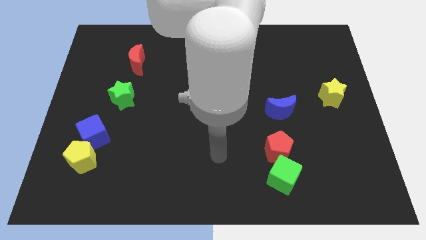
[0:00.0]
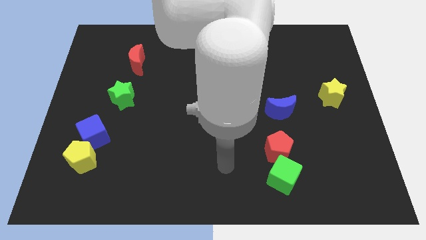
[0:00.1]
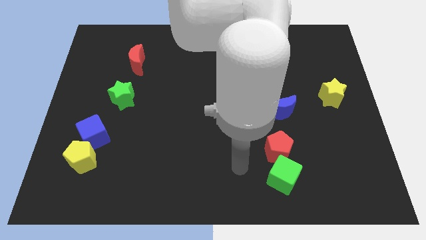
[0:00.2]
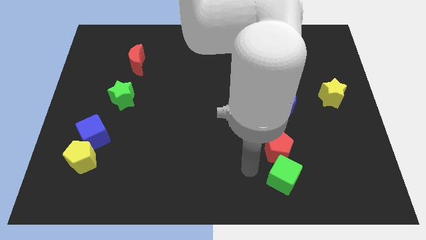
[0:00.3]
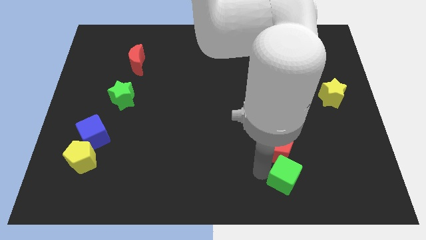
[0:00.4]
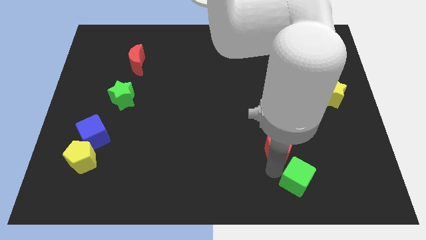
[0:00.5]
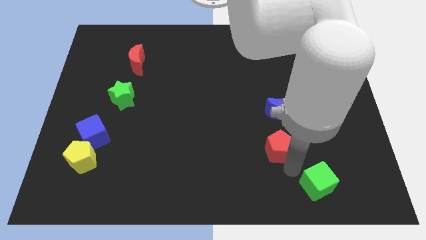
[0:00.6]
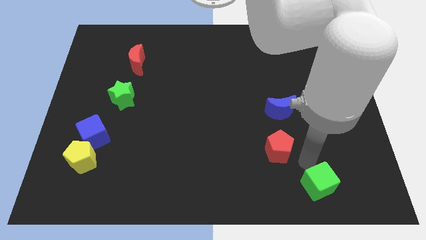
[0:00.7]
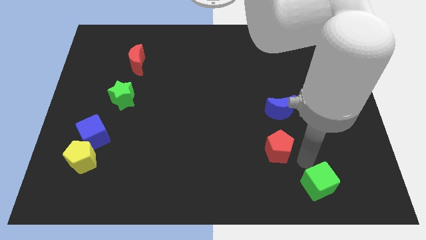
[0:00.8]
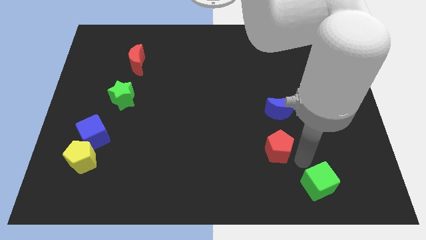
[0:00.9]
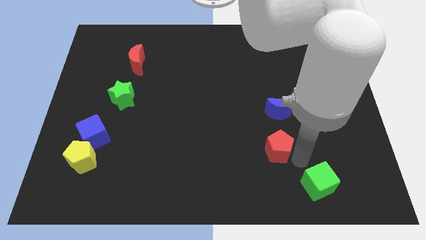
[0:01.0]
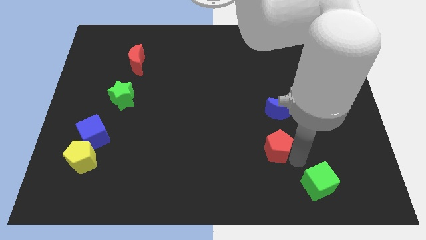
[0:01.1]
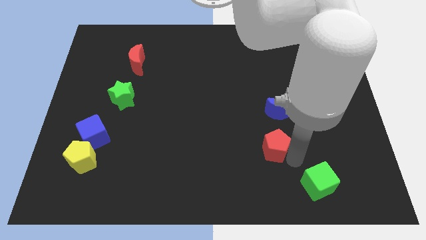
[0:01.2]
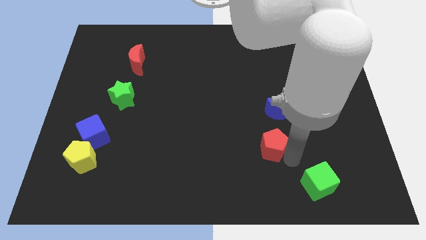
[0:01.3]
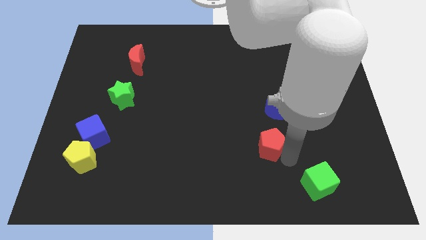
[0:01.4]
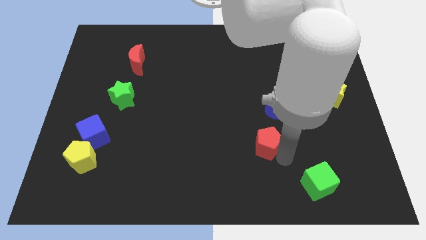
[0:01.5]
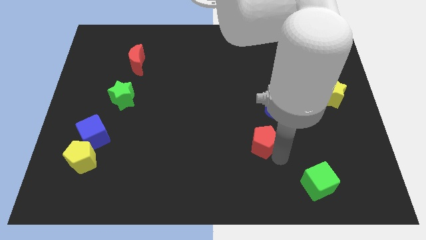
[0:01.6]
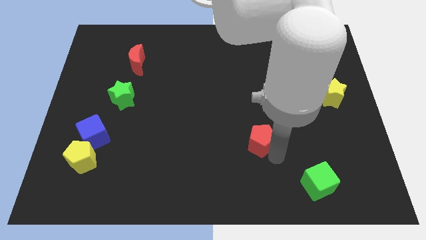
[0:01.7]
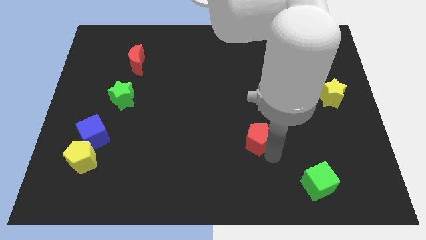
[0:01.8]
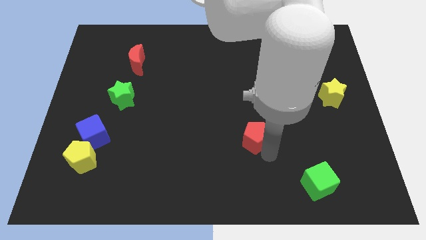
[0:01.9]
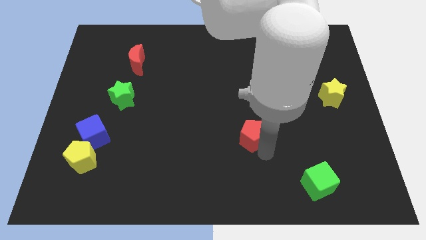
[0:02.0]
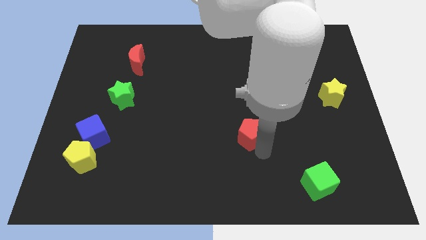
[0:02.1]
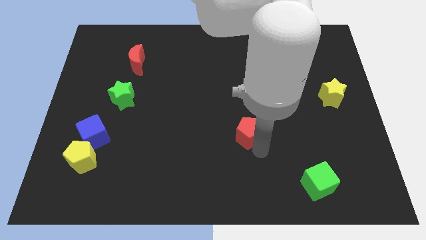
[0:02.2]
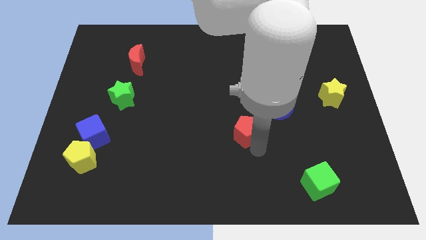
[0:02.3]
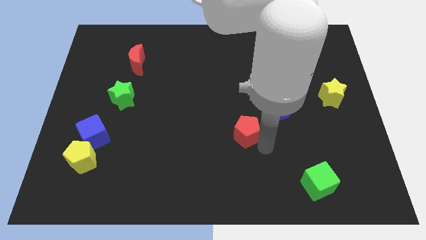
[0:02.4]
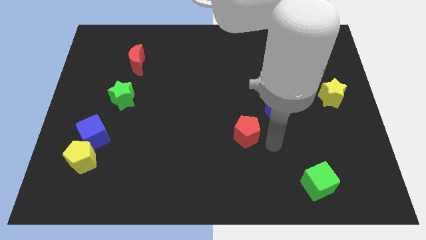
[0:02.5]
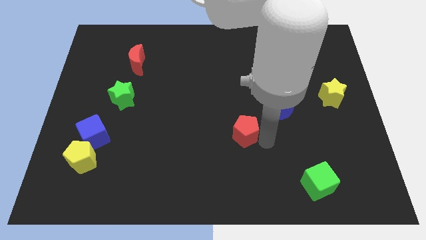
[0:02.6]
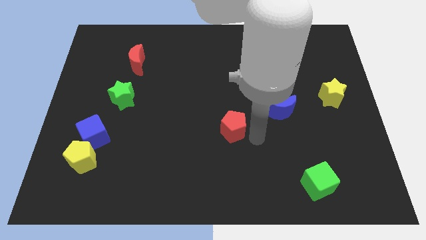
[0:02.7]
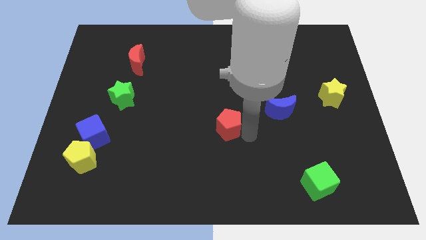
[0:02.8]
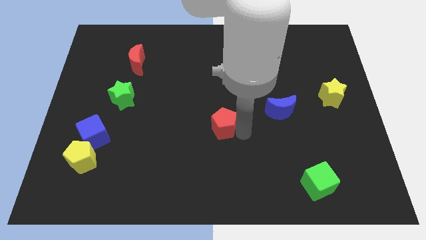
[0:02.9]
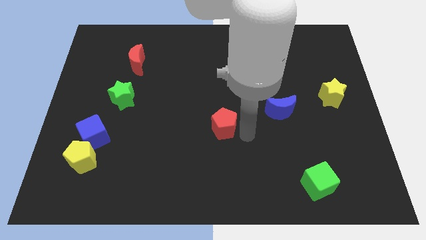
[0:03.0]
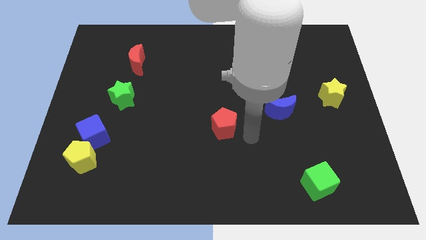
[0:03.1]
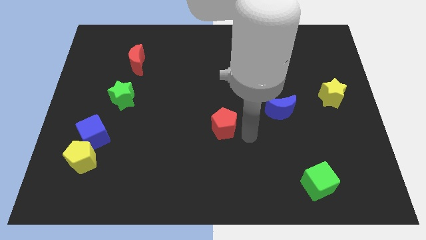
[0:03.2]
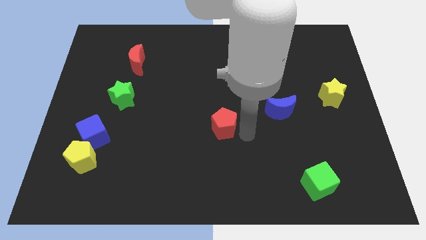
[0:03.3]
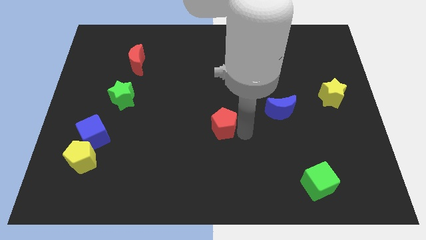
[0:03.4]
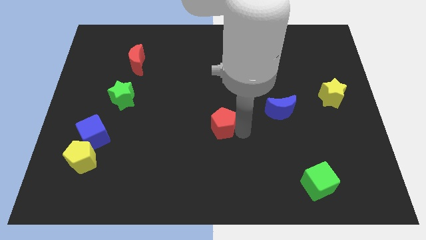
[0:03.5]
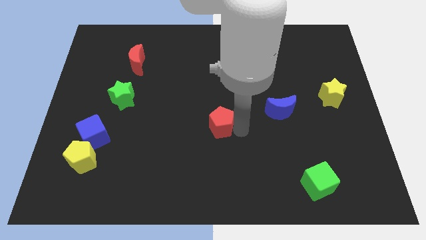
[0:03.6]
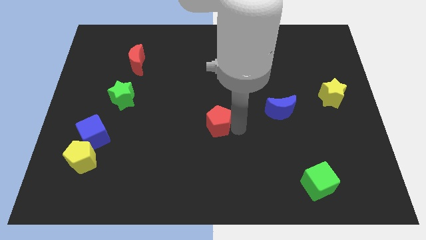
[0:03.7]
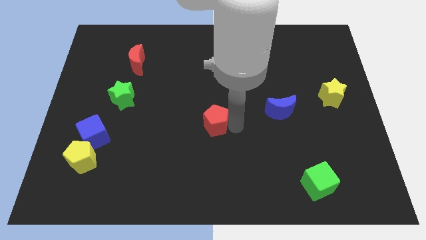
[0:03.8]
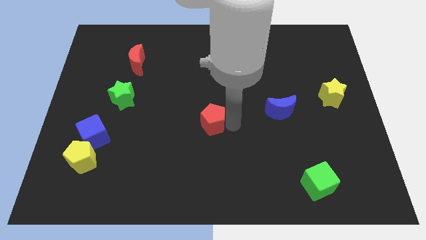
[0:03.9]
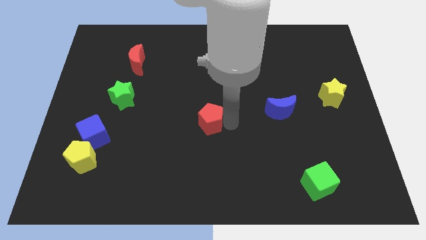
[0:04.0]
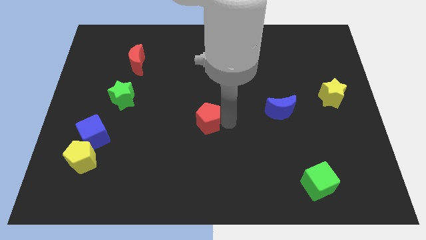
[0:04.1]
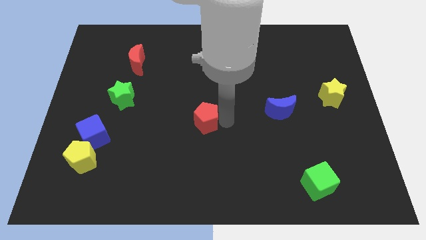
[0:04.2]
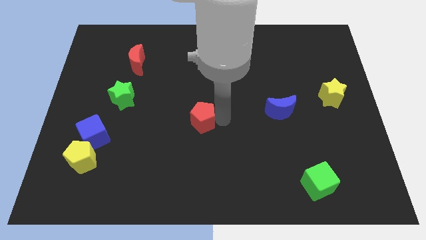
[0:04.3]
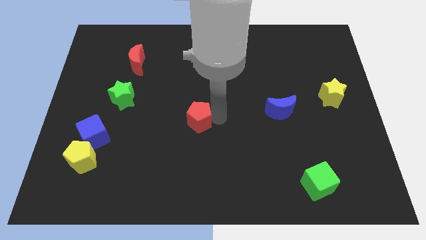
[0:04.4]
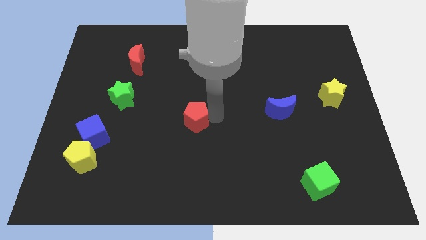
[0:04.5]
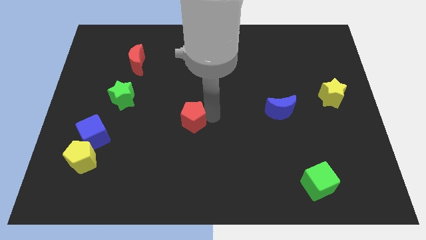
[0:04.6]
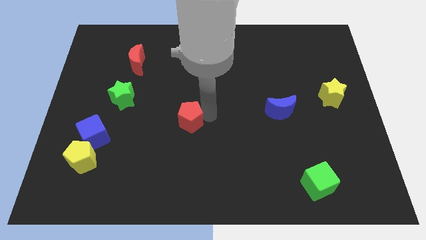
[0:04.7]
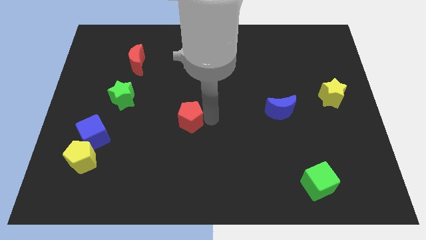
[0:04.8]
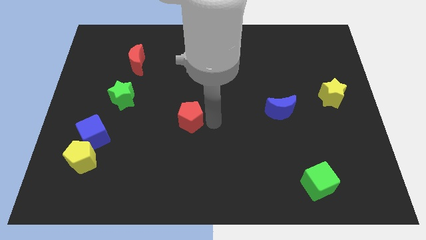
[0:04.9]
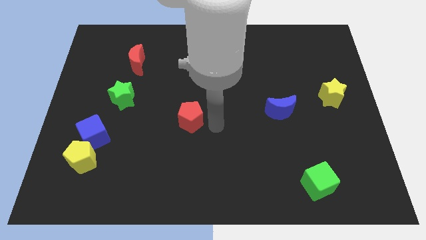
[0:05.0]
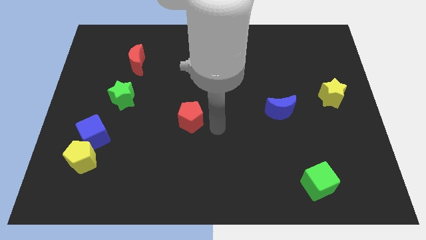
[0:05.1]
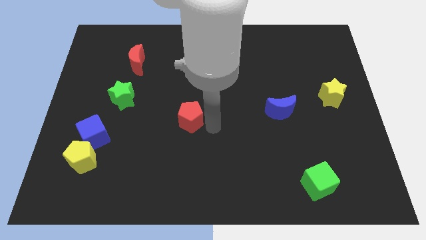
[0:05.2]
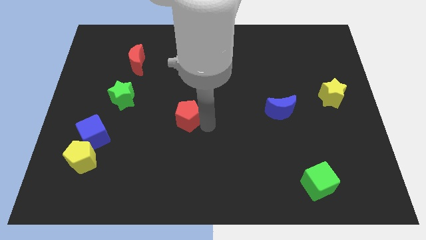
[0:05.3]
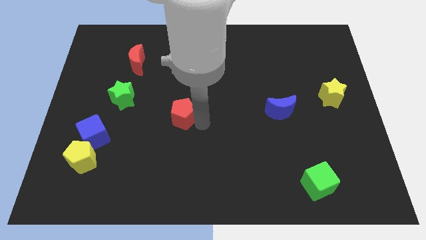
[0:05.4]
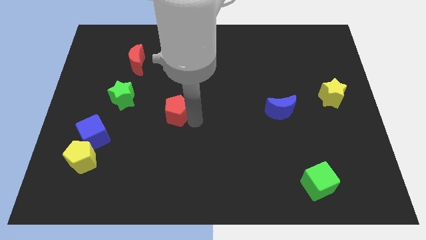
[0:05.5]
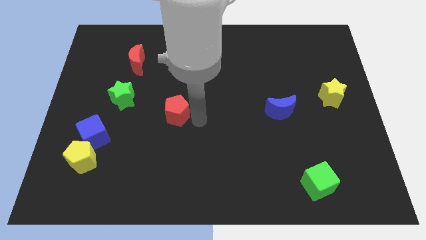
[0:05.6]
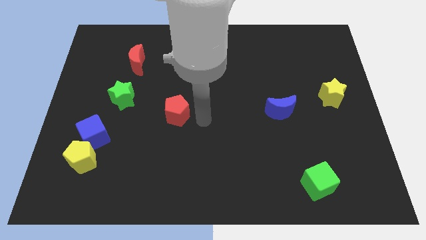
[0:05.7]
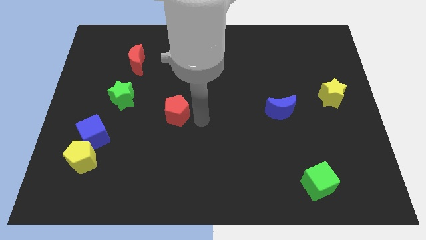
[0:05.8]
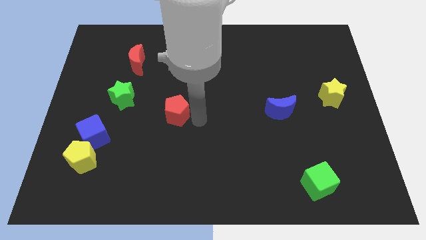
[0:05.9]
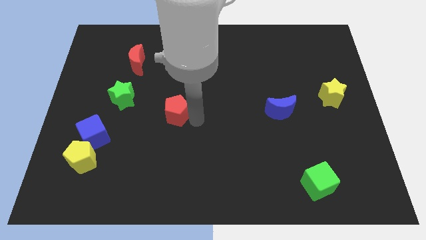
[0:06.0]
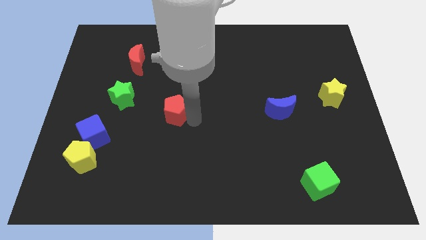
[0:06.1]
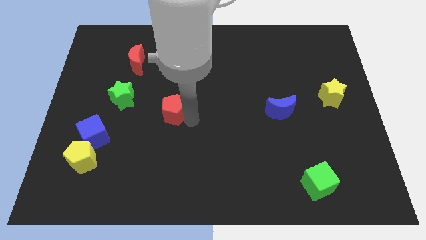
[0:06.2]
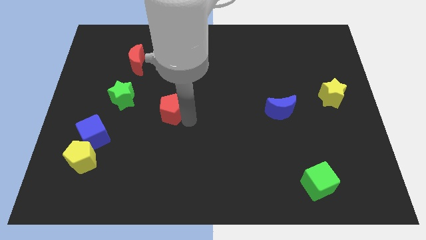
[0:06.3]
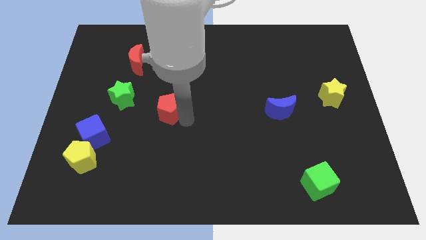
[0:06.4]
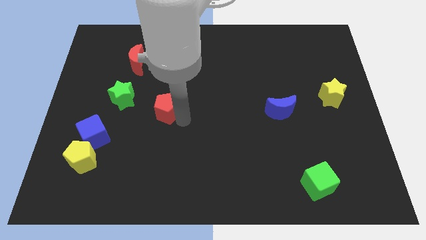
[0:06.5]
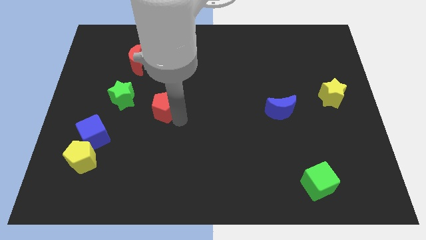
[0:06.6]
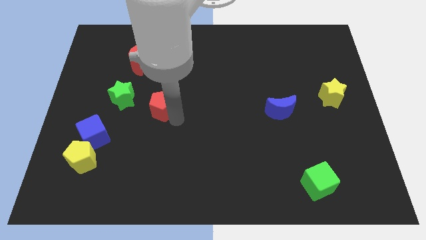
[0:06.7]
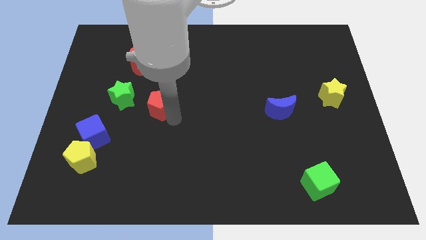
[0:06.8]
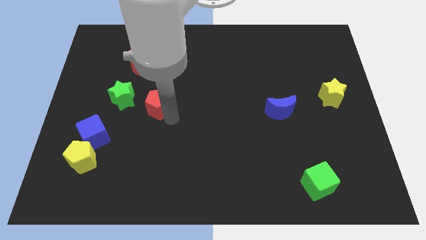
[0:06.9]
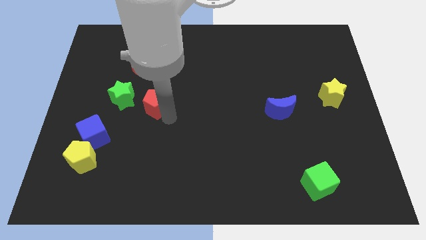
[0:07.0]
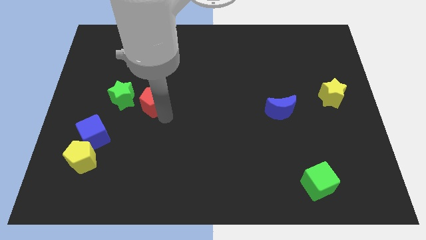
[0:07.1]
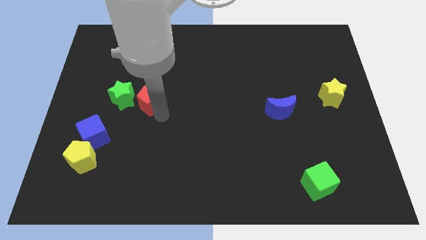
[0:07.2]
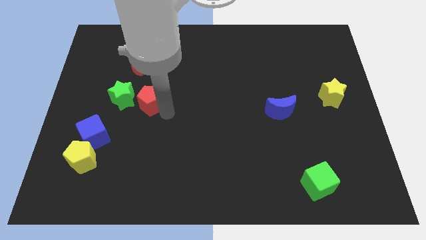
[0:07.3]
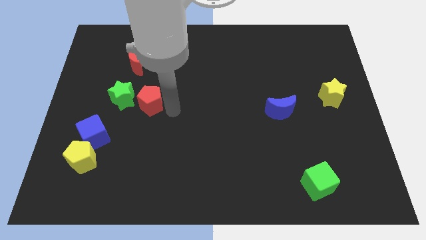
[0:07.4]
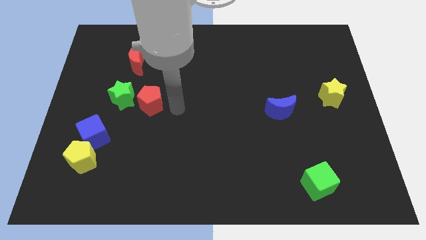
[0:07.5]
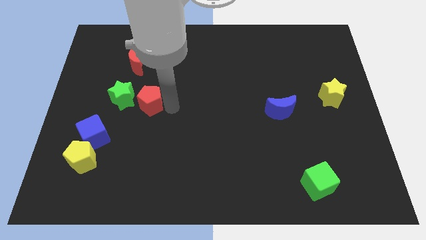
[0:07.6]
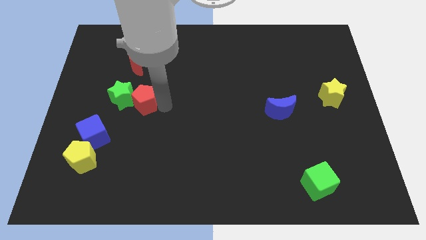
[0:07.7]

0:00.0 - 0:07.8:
push the red pentagon next to the green star
